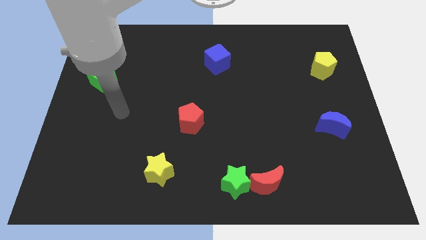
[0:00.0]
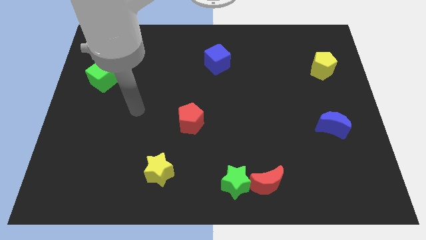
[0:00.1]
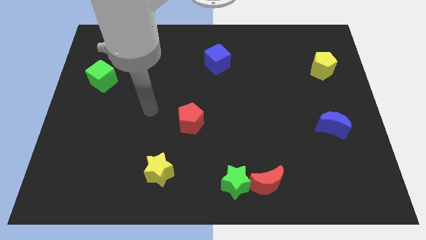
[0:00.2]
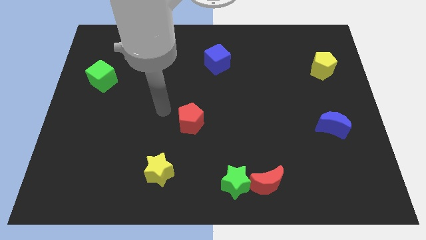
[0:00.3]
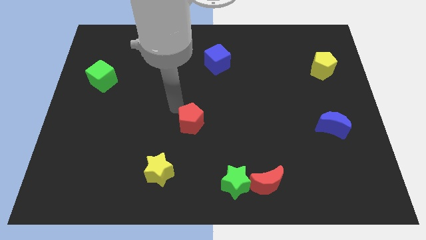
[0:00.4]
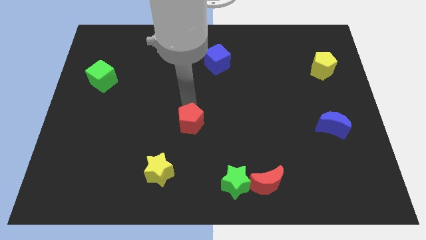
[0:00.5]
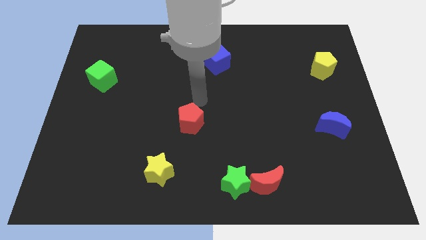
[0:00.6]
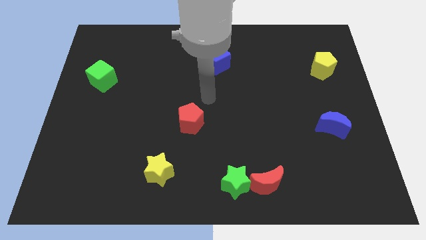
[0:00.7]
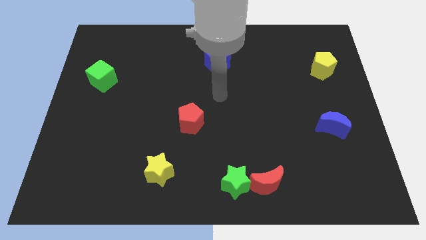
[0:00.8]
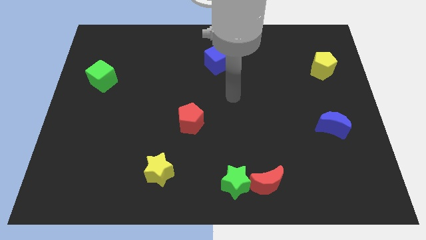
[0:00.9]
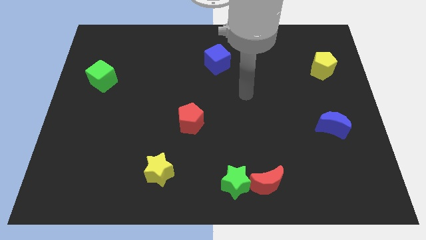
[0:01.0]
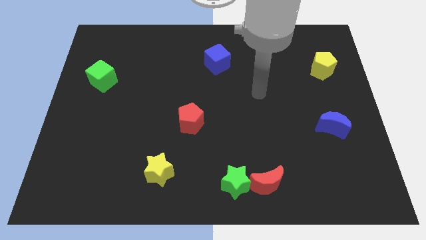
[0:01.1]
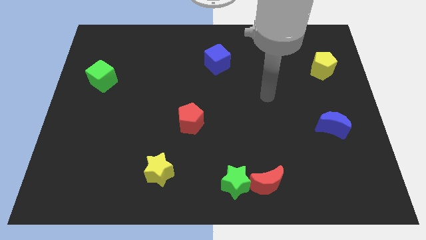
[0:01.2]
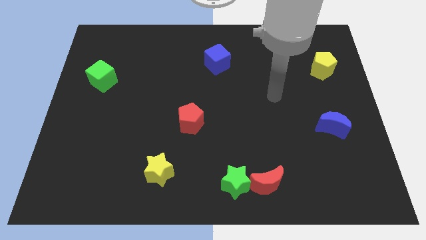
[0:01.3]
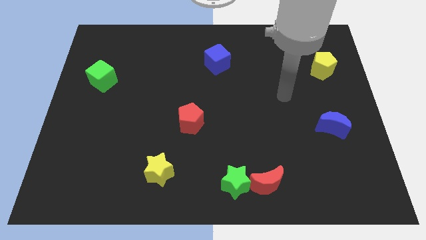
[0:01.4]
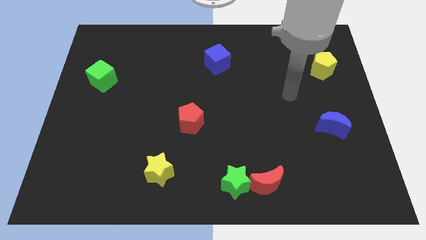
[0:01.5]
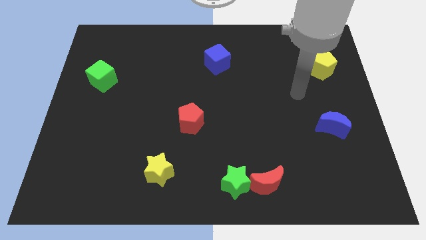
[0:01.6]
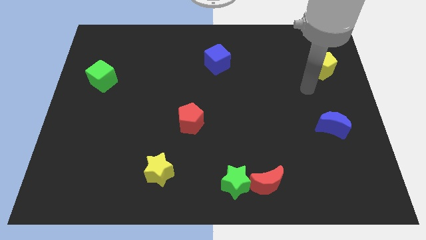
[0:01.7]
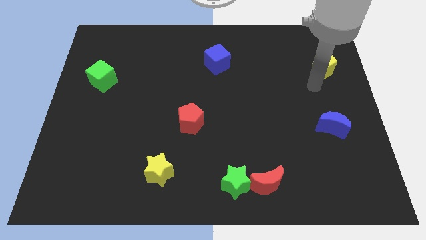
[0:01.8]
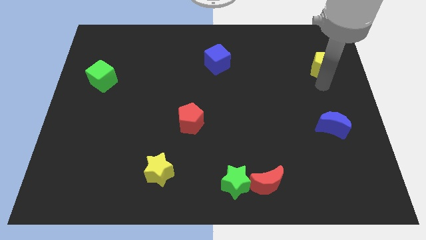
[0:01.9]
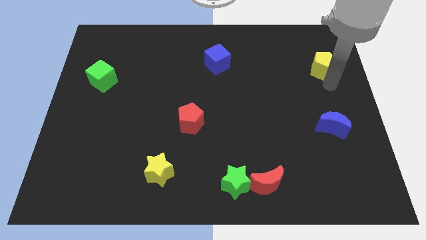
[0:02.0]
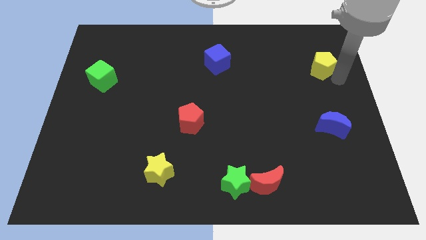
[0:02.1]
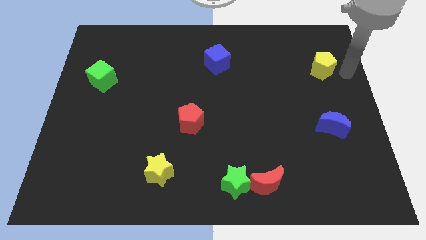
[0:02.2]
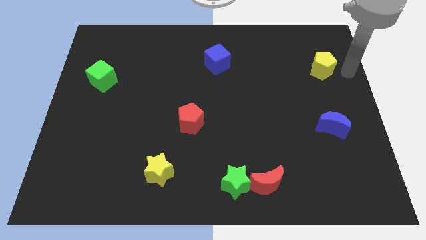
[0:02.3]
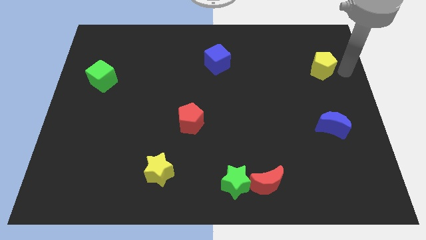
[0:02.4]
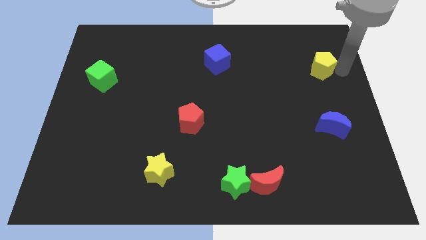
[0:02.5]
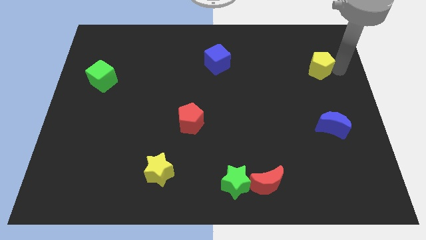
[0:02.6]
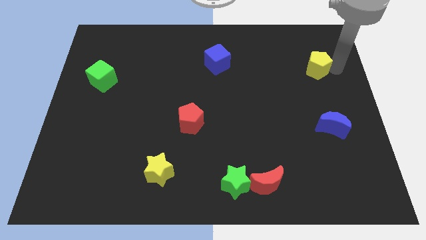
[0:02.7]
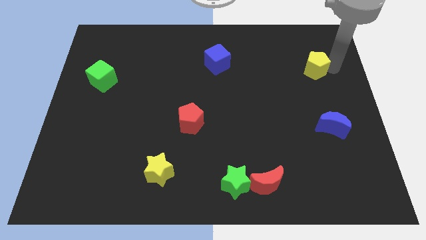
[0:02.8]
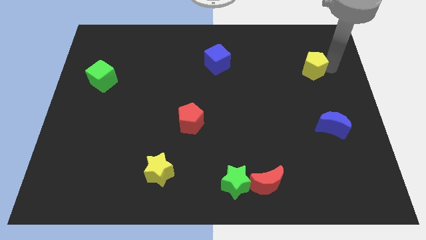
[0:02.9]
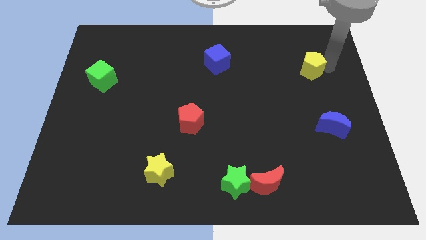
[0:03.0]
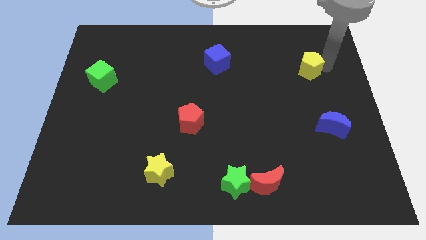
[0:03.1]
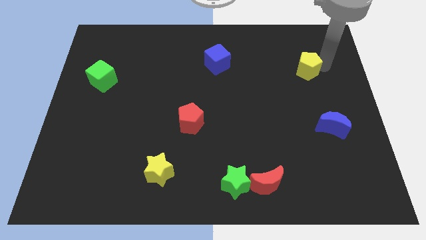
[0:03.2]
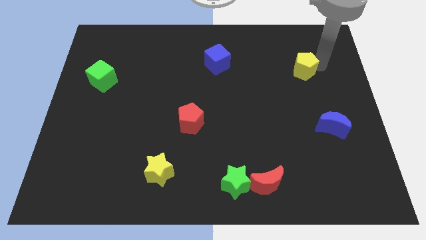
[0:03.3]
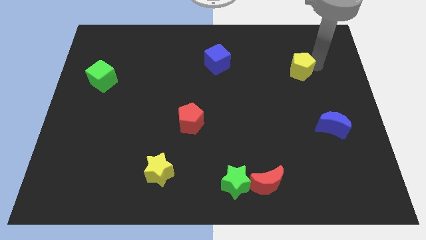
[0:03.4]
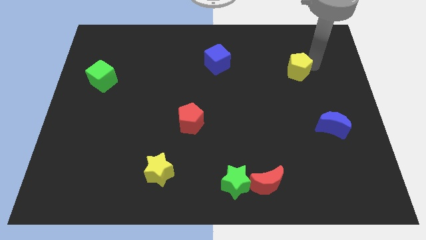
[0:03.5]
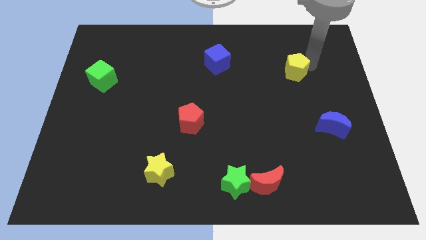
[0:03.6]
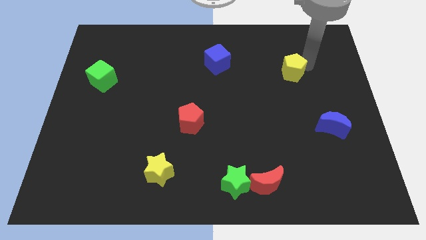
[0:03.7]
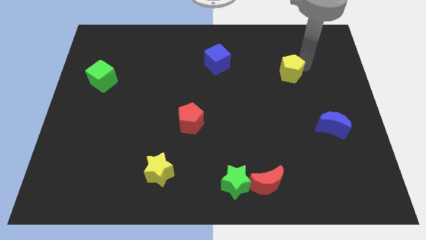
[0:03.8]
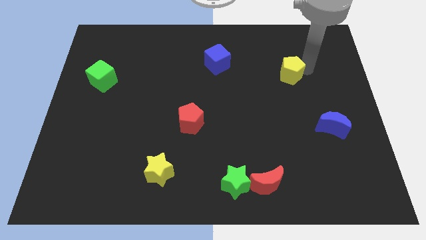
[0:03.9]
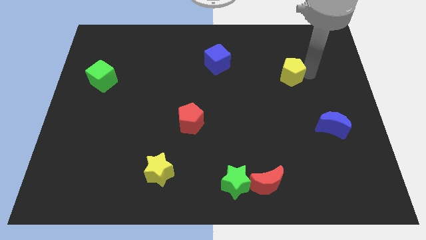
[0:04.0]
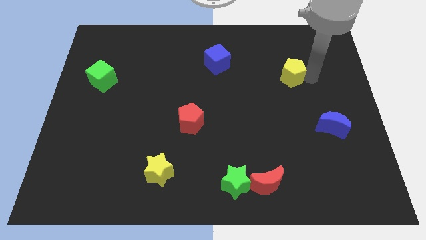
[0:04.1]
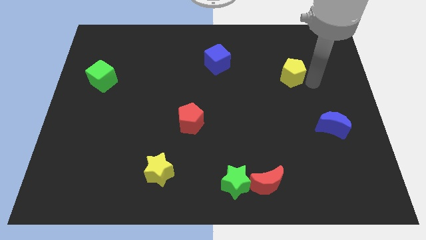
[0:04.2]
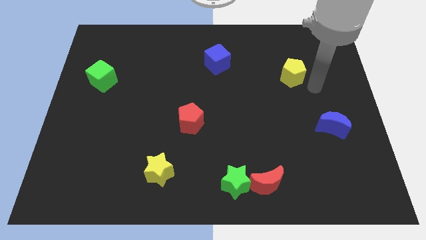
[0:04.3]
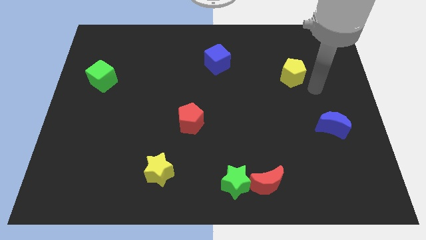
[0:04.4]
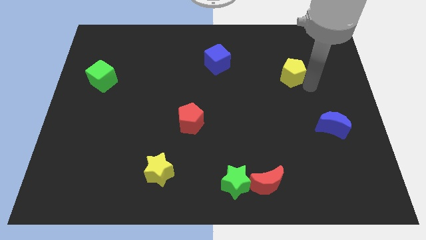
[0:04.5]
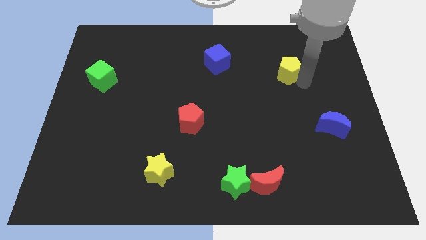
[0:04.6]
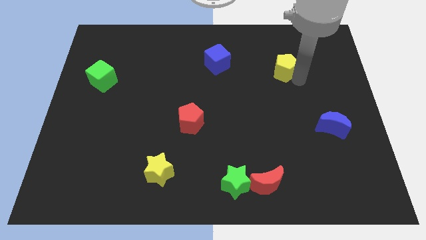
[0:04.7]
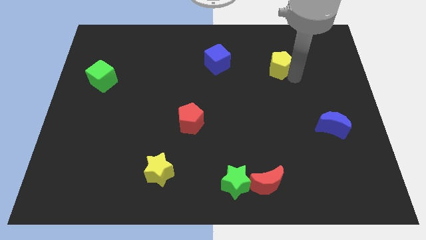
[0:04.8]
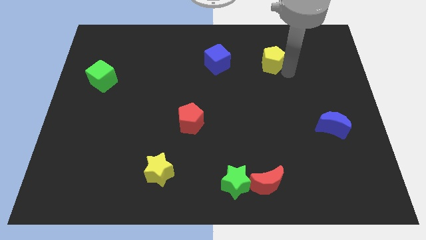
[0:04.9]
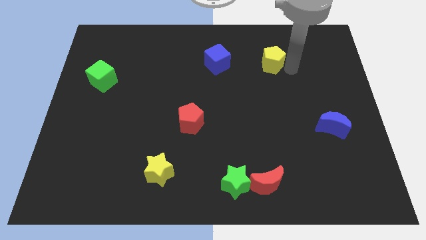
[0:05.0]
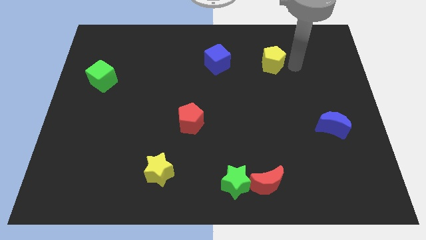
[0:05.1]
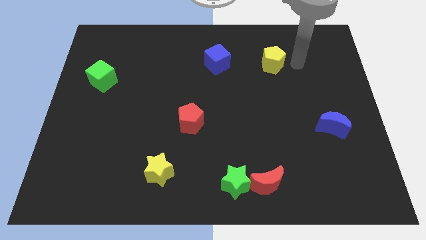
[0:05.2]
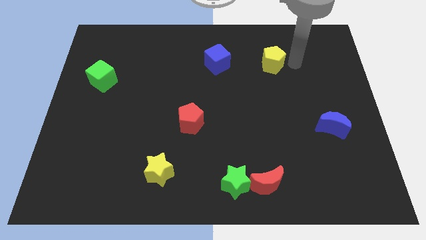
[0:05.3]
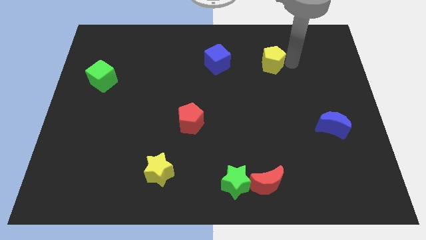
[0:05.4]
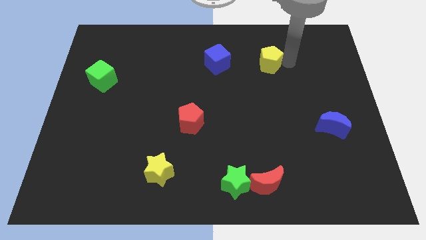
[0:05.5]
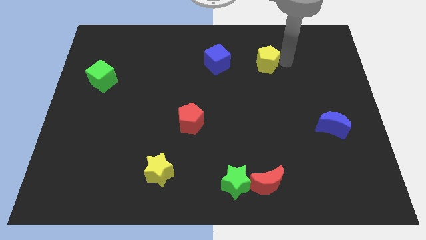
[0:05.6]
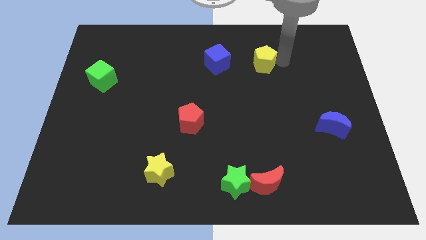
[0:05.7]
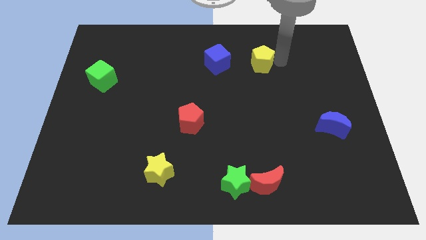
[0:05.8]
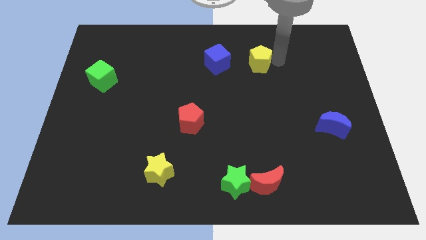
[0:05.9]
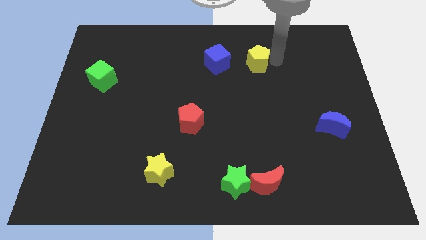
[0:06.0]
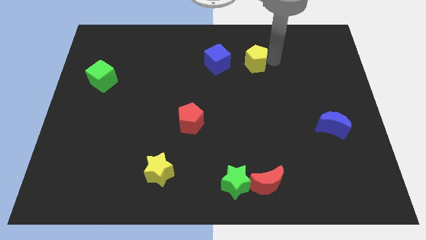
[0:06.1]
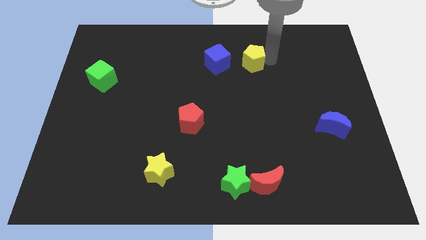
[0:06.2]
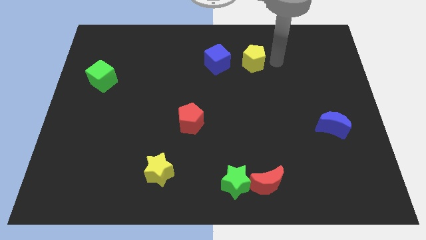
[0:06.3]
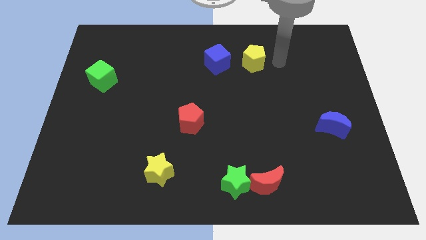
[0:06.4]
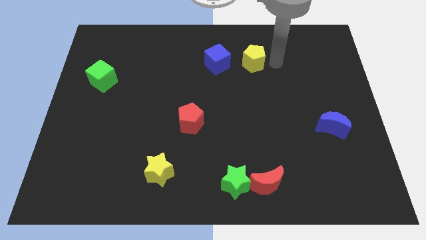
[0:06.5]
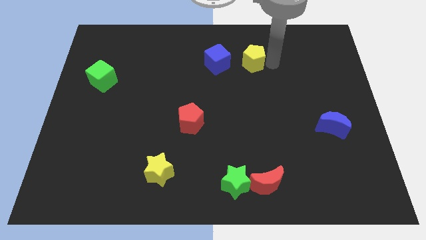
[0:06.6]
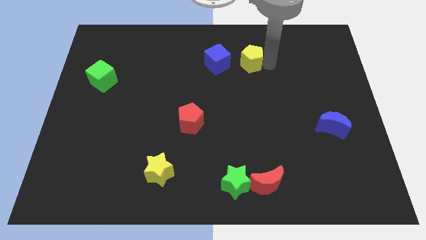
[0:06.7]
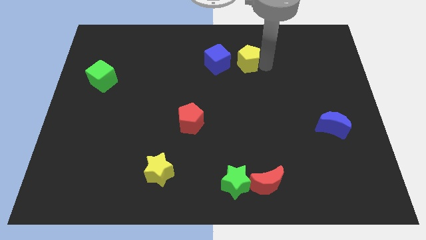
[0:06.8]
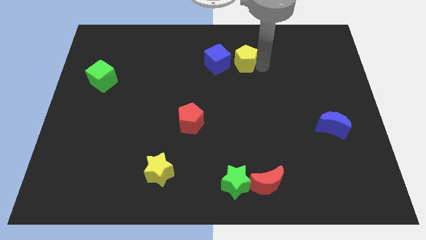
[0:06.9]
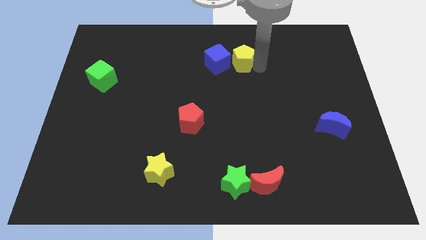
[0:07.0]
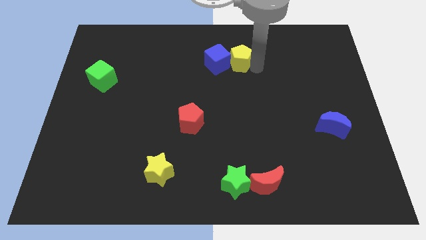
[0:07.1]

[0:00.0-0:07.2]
slide the yellow pentagon to the blue cube

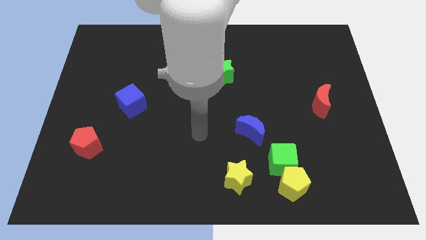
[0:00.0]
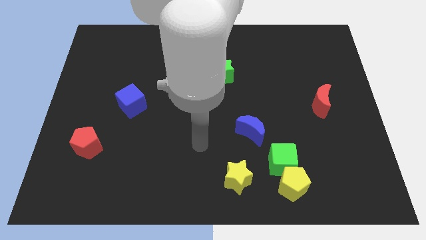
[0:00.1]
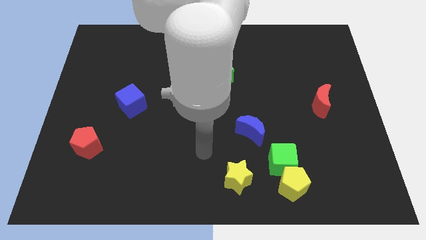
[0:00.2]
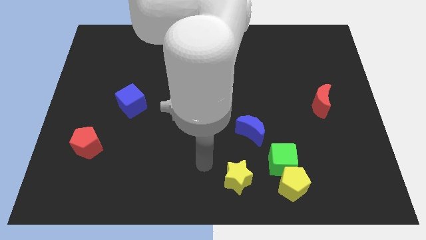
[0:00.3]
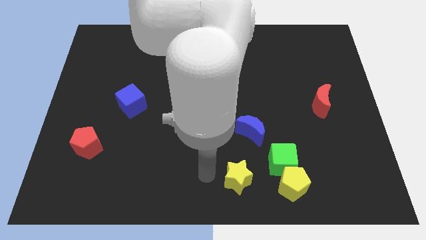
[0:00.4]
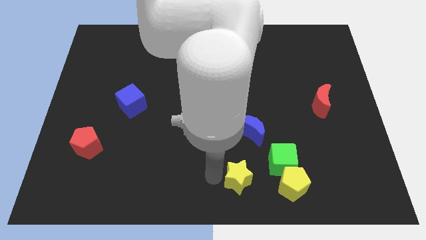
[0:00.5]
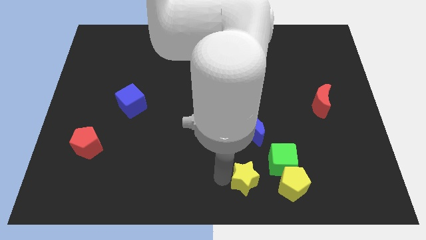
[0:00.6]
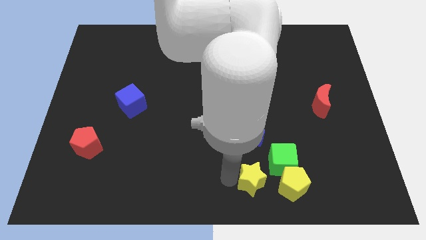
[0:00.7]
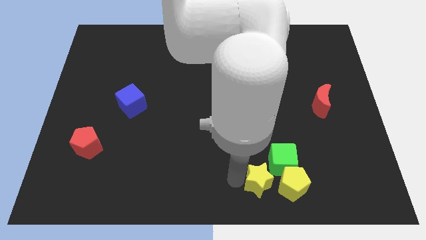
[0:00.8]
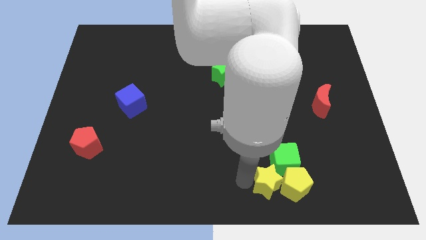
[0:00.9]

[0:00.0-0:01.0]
slide the yellow star close to the yellow pentagon
